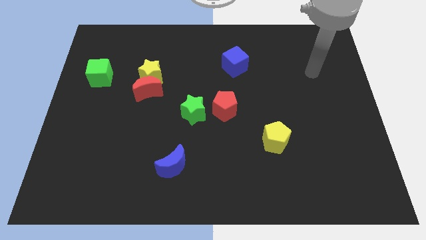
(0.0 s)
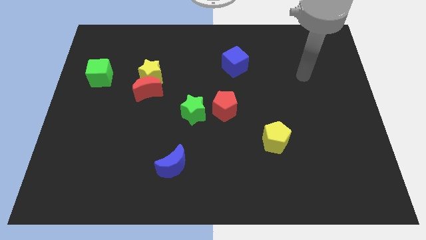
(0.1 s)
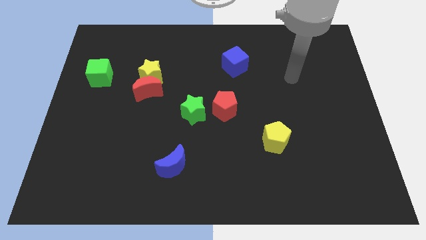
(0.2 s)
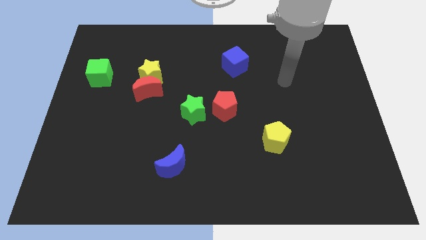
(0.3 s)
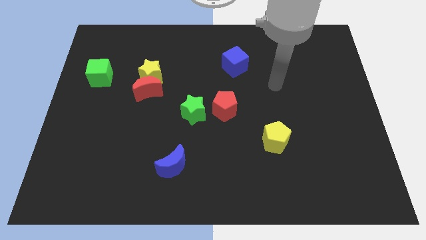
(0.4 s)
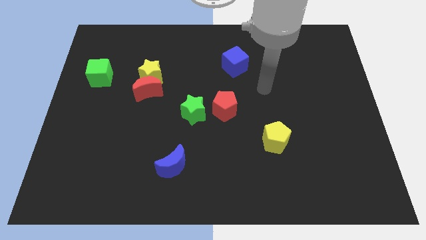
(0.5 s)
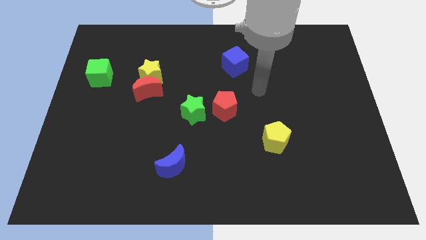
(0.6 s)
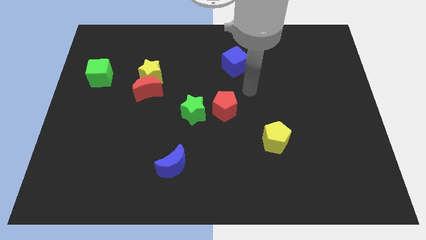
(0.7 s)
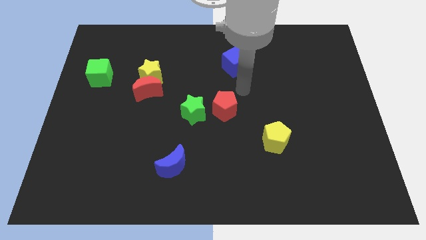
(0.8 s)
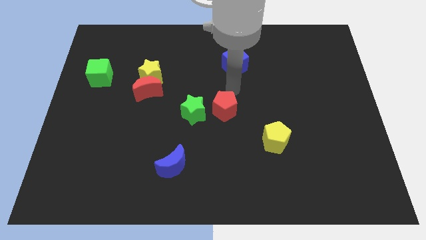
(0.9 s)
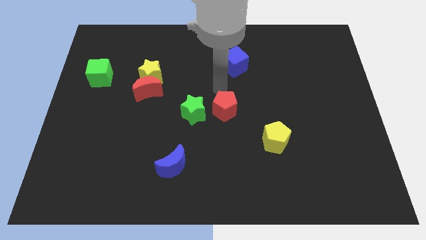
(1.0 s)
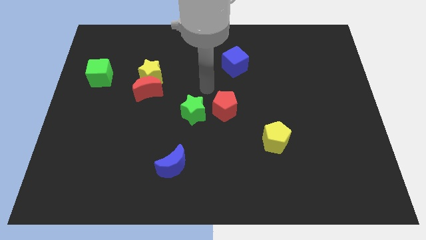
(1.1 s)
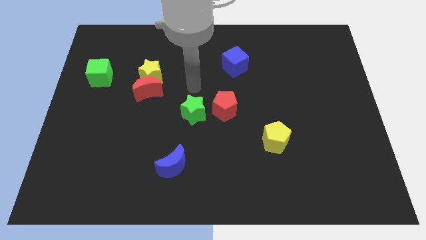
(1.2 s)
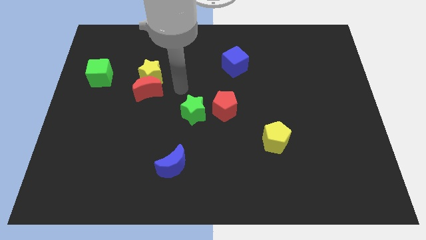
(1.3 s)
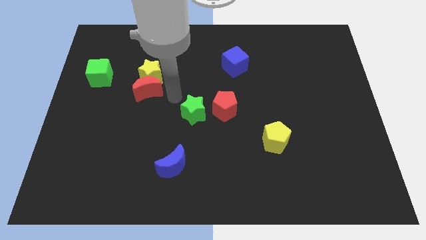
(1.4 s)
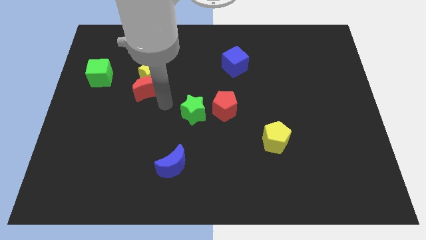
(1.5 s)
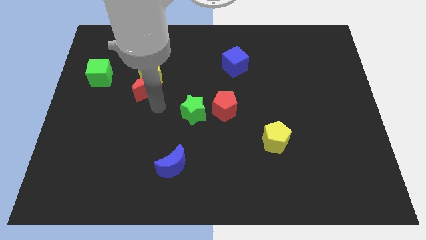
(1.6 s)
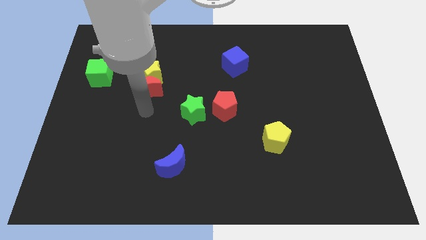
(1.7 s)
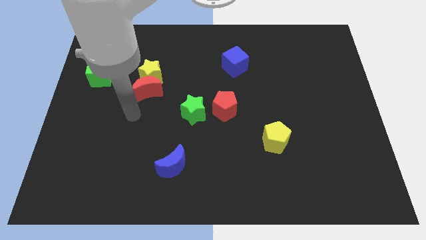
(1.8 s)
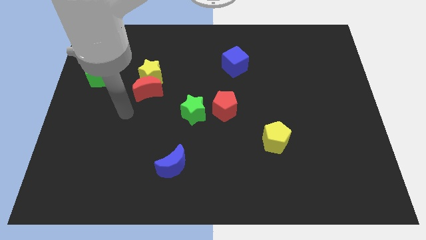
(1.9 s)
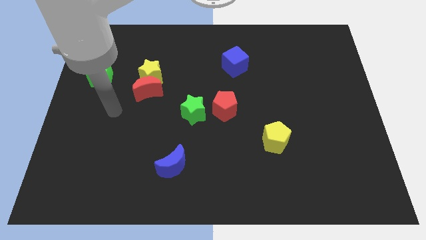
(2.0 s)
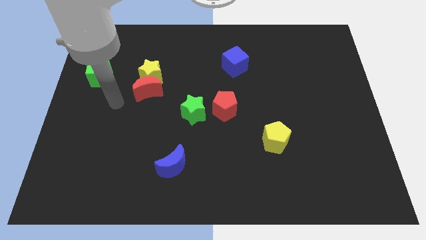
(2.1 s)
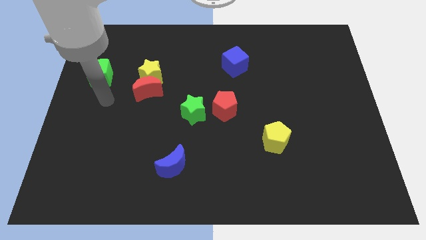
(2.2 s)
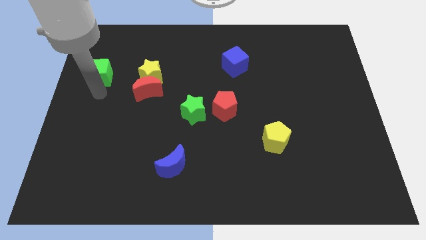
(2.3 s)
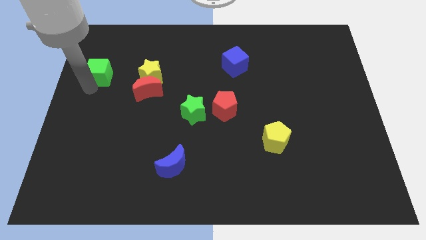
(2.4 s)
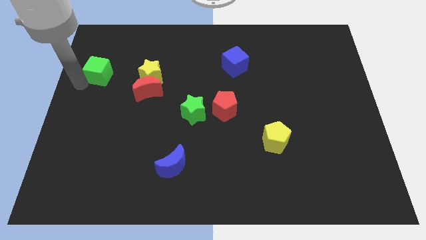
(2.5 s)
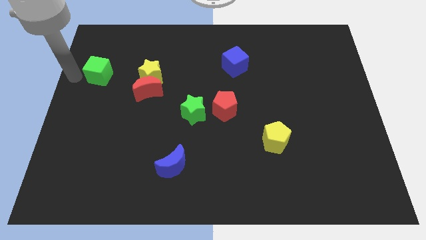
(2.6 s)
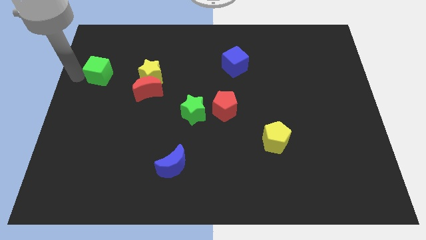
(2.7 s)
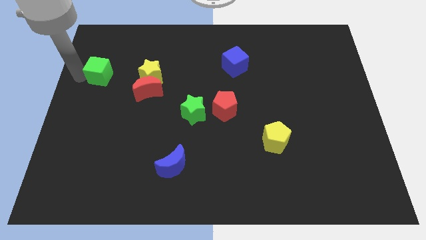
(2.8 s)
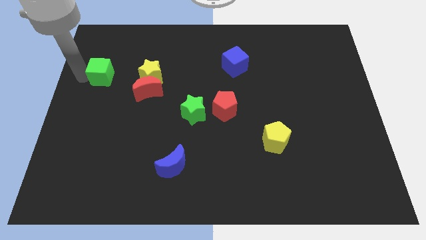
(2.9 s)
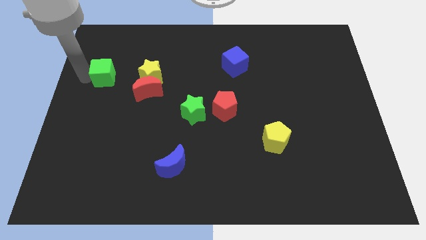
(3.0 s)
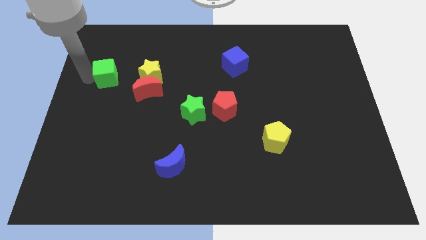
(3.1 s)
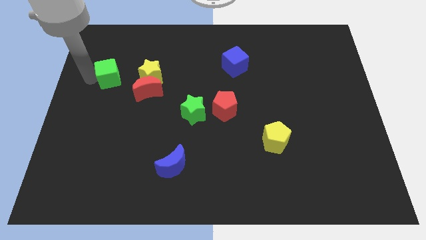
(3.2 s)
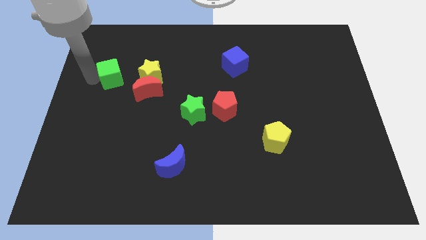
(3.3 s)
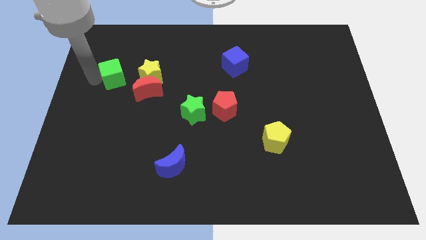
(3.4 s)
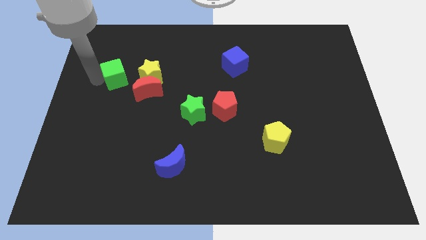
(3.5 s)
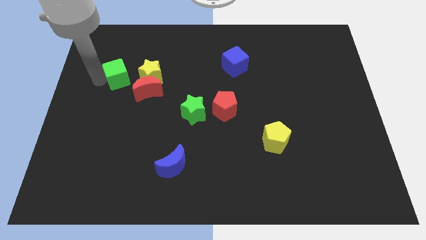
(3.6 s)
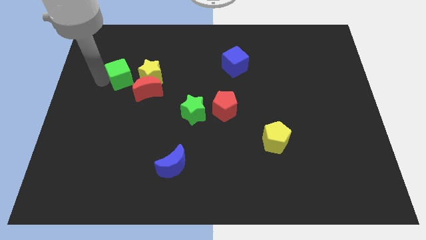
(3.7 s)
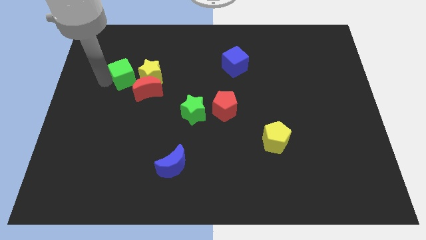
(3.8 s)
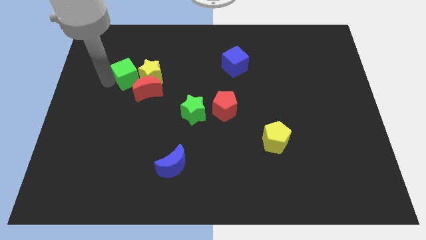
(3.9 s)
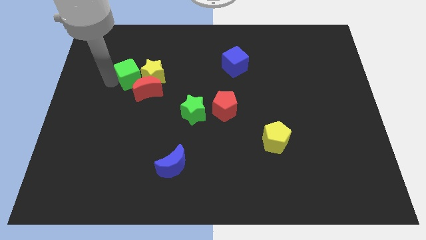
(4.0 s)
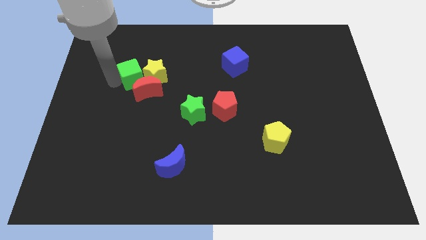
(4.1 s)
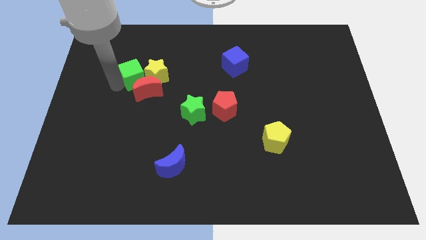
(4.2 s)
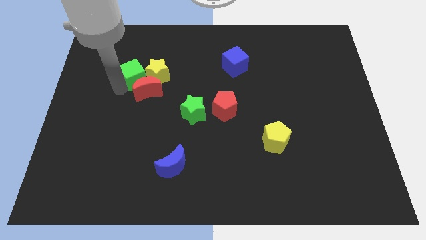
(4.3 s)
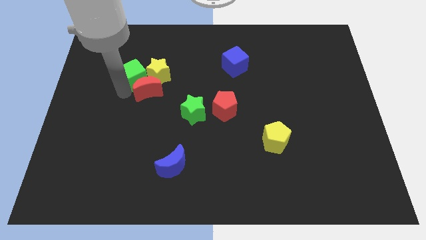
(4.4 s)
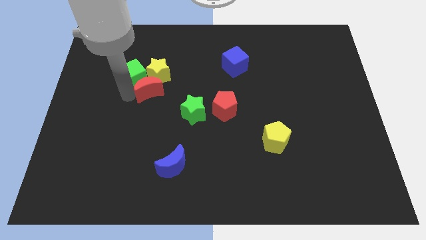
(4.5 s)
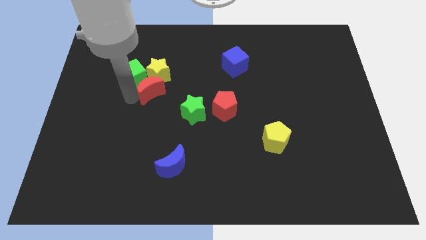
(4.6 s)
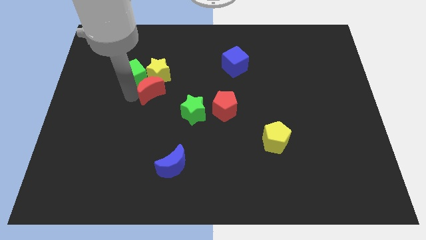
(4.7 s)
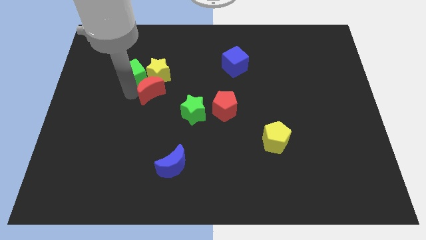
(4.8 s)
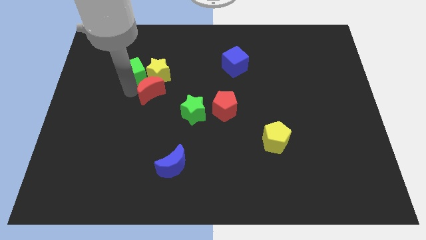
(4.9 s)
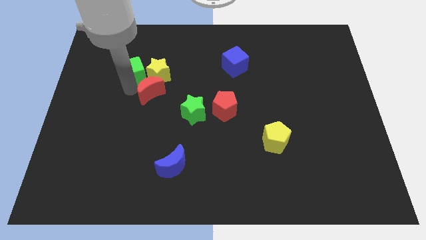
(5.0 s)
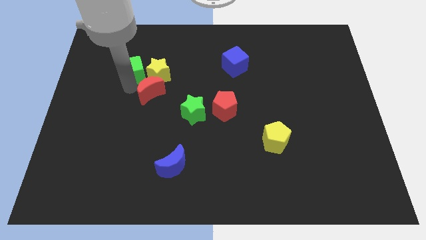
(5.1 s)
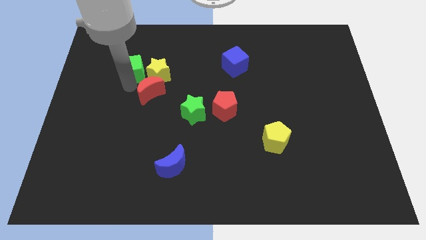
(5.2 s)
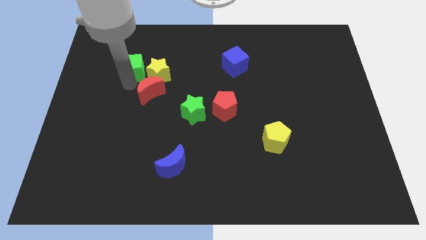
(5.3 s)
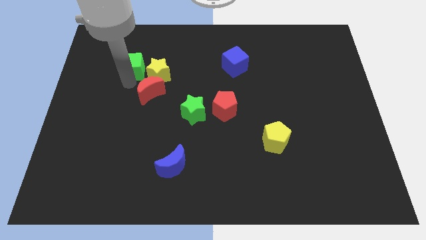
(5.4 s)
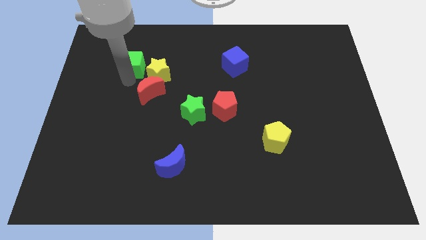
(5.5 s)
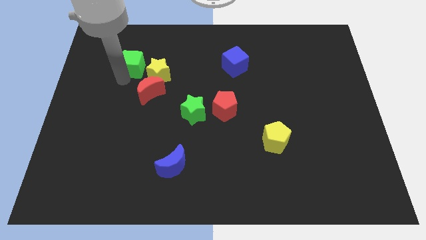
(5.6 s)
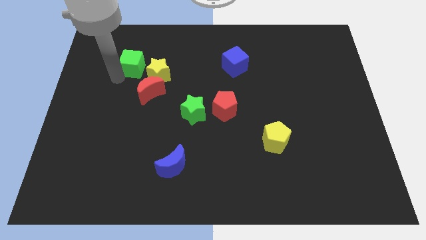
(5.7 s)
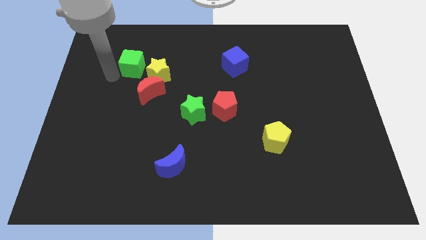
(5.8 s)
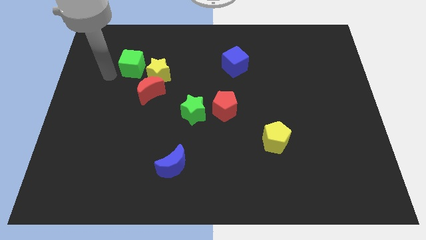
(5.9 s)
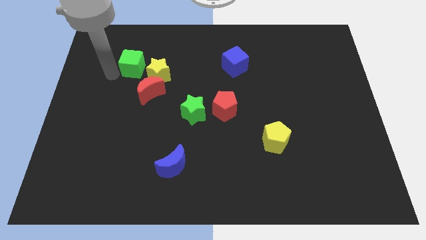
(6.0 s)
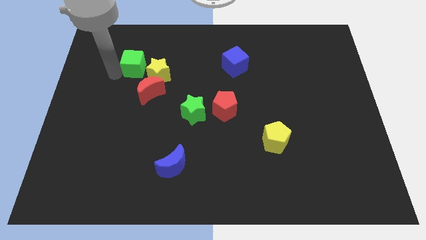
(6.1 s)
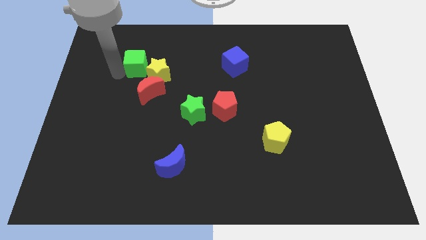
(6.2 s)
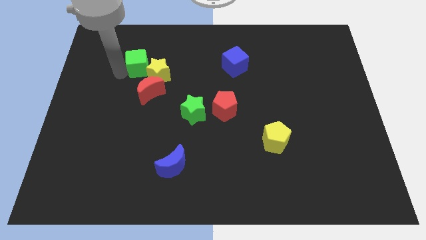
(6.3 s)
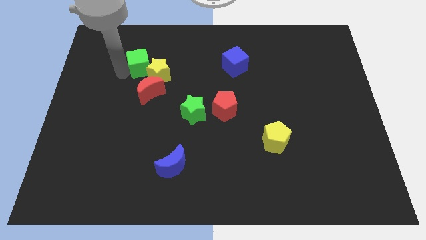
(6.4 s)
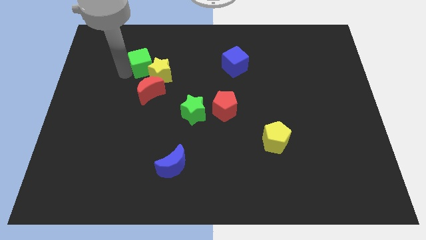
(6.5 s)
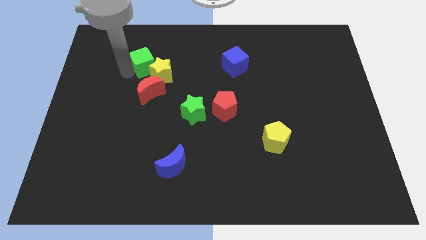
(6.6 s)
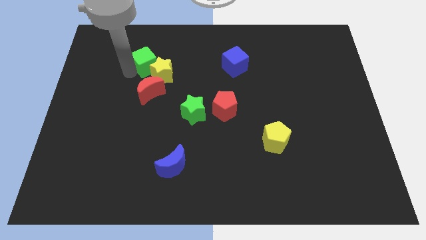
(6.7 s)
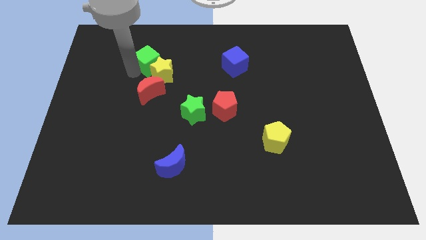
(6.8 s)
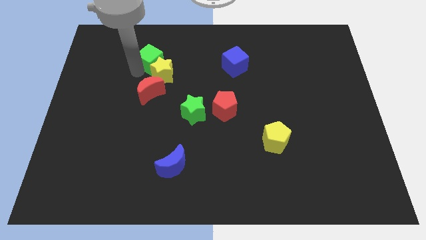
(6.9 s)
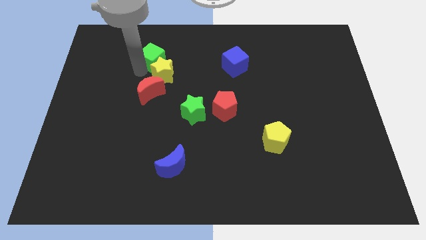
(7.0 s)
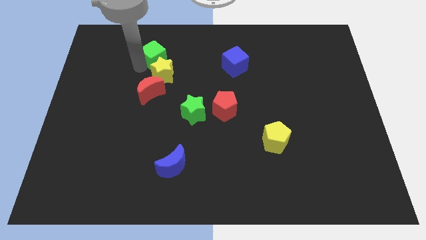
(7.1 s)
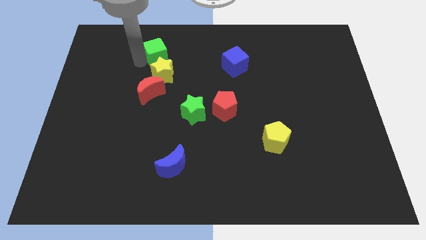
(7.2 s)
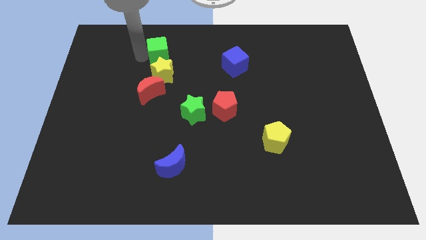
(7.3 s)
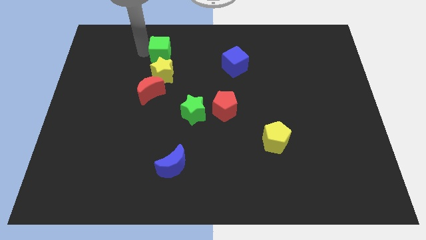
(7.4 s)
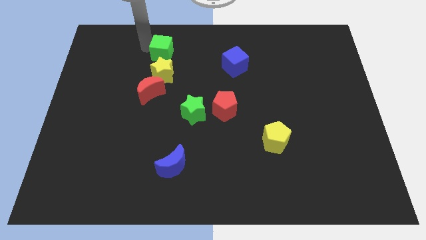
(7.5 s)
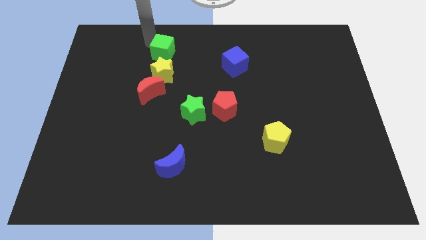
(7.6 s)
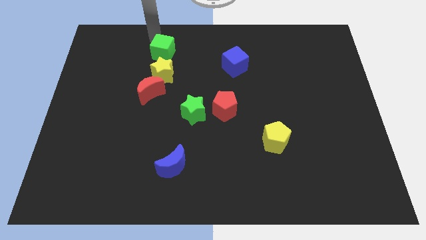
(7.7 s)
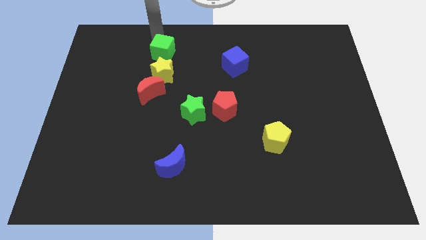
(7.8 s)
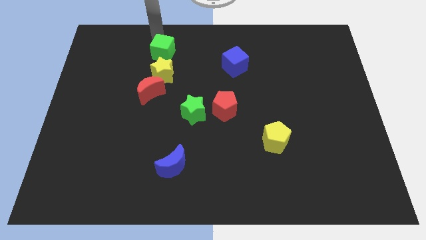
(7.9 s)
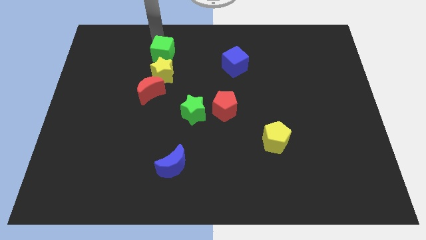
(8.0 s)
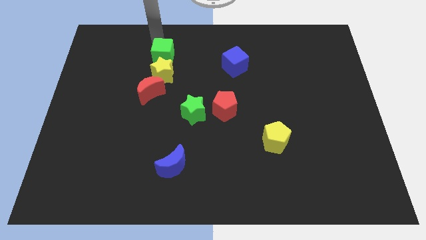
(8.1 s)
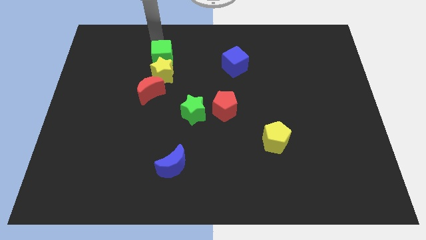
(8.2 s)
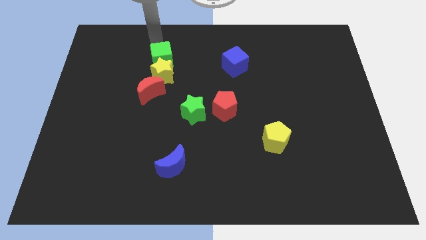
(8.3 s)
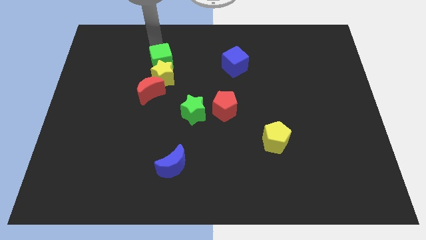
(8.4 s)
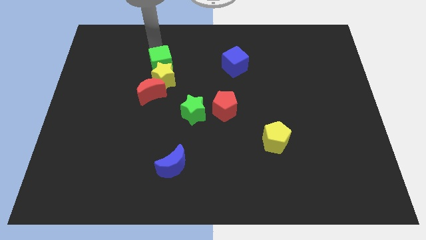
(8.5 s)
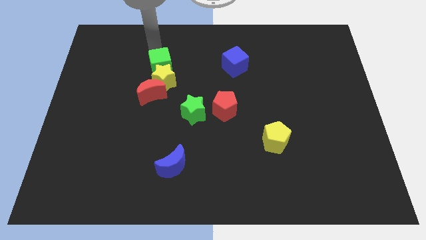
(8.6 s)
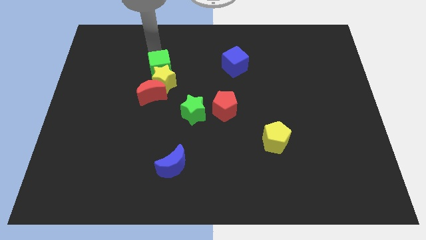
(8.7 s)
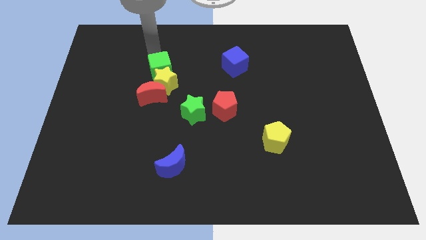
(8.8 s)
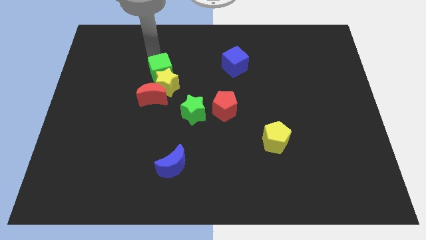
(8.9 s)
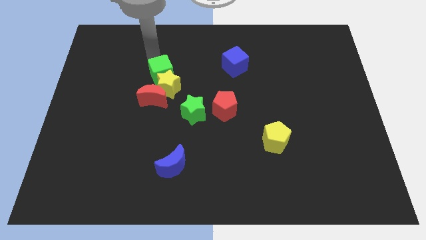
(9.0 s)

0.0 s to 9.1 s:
move the green cube to the top right of the red moon

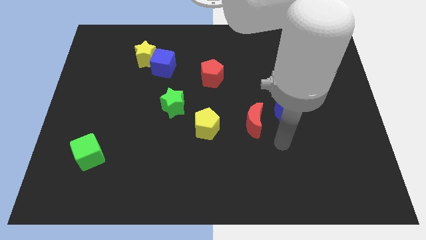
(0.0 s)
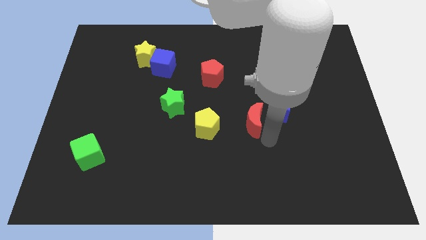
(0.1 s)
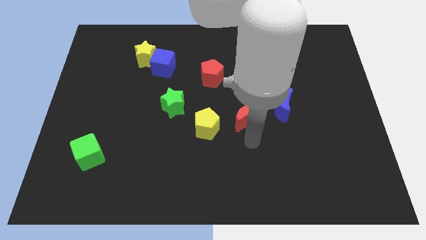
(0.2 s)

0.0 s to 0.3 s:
slide the yellow pentagon to the bottom left side of the red moon
